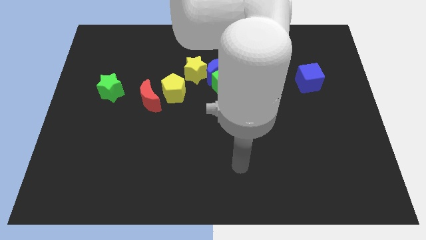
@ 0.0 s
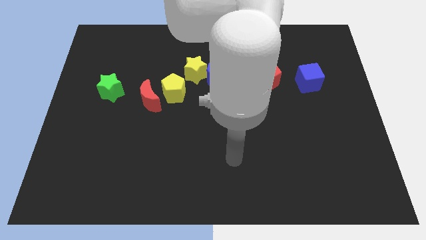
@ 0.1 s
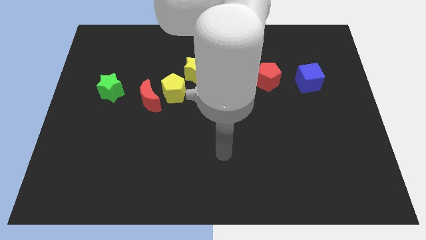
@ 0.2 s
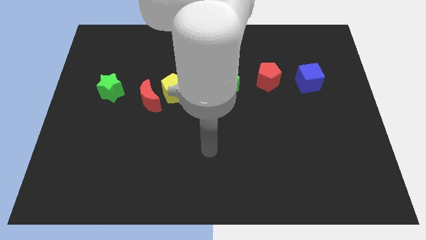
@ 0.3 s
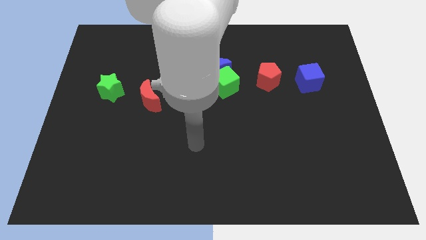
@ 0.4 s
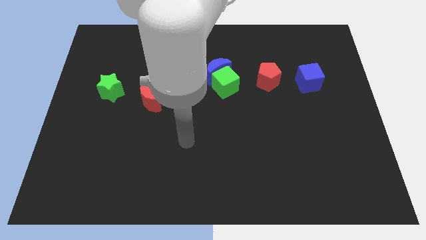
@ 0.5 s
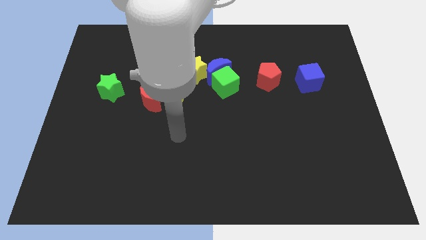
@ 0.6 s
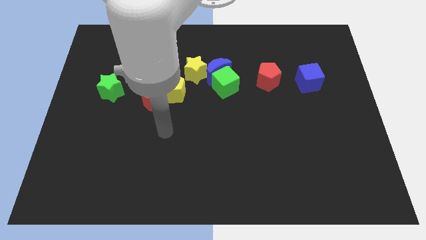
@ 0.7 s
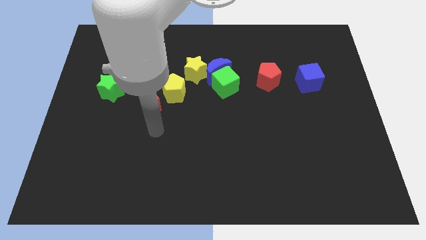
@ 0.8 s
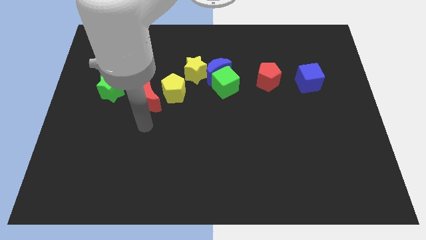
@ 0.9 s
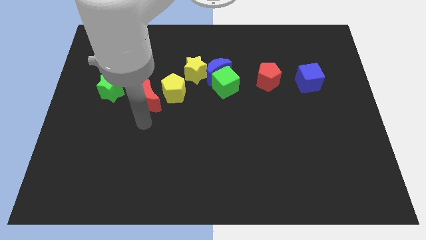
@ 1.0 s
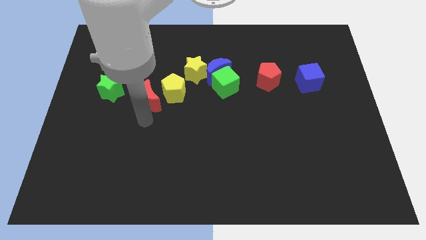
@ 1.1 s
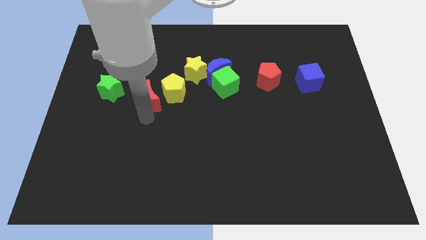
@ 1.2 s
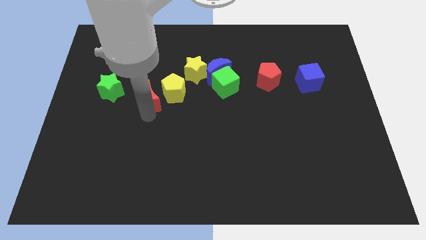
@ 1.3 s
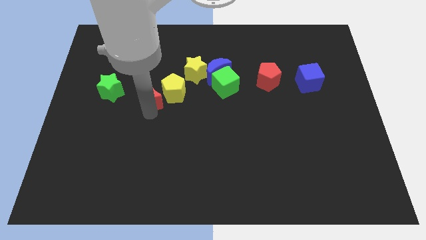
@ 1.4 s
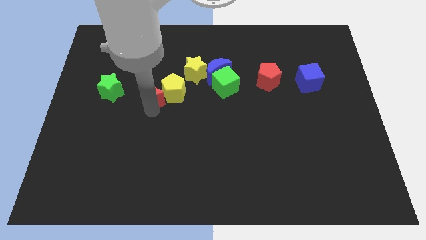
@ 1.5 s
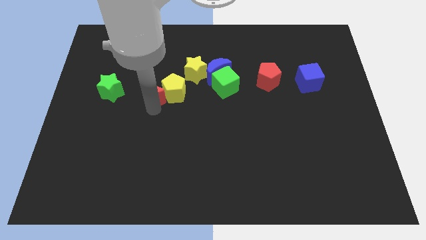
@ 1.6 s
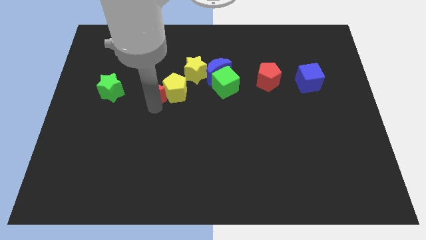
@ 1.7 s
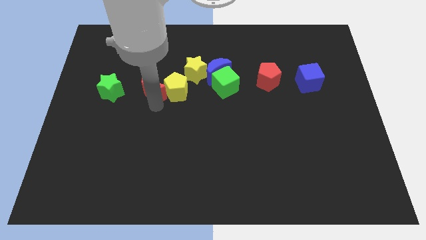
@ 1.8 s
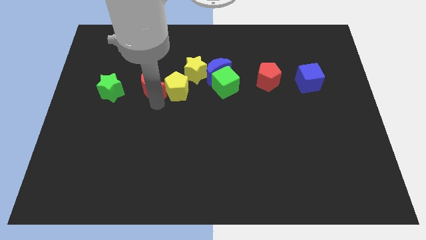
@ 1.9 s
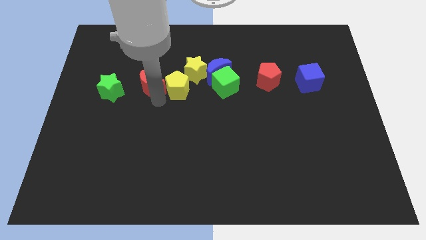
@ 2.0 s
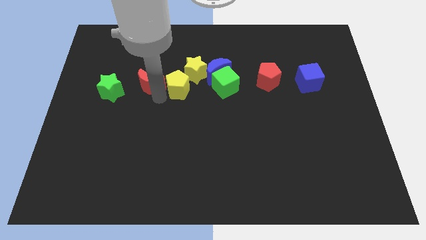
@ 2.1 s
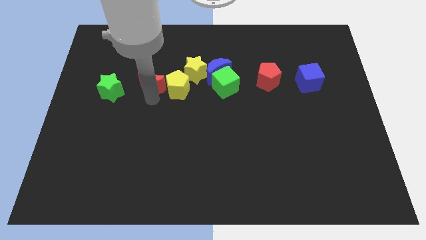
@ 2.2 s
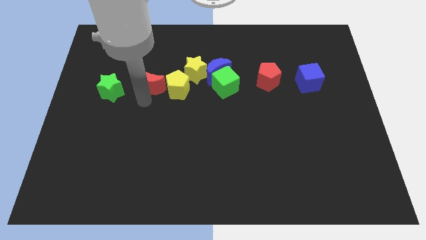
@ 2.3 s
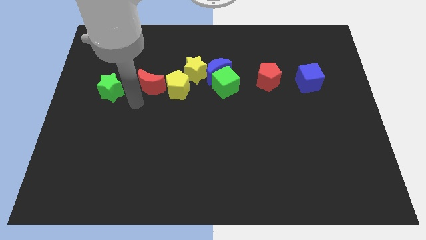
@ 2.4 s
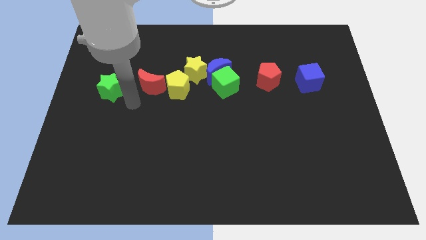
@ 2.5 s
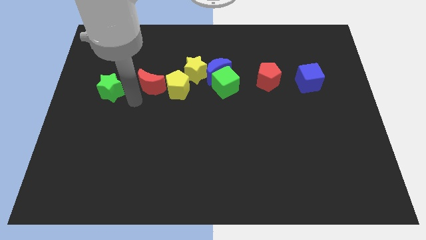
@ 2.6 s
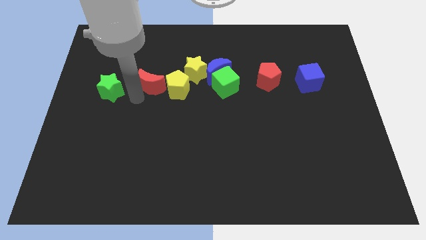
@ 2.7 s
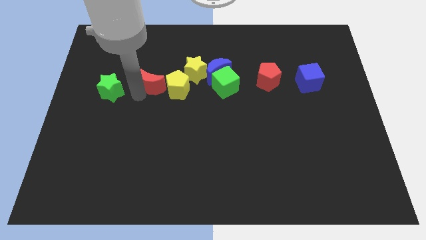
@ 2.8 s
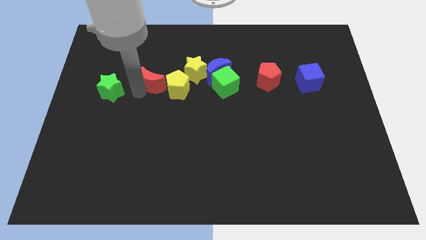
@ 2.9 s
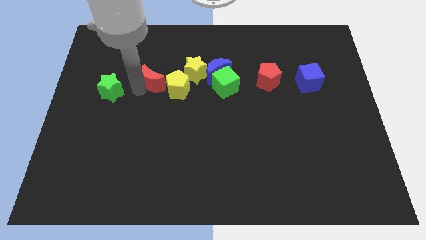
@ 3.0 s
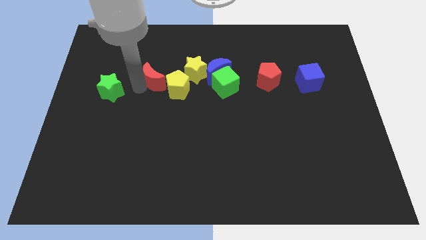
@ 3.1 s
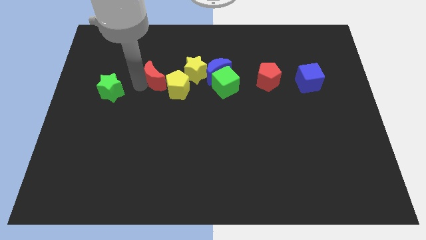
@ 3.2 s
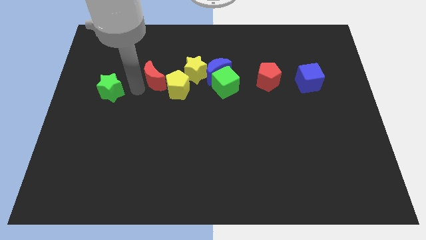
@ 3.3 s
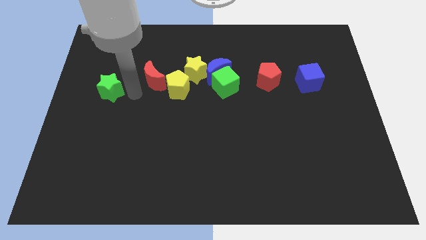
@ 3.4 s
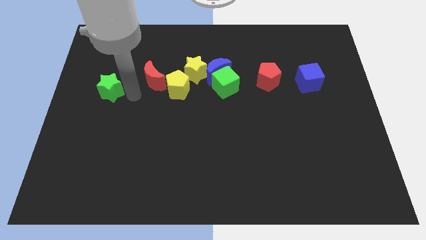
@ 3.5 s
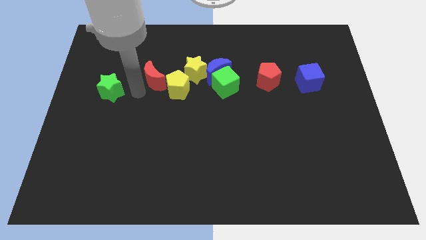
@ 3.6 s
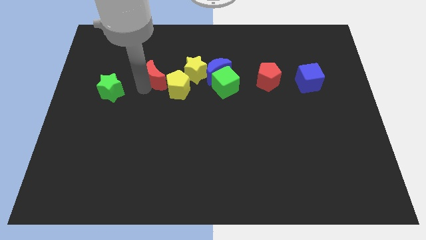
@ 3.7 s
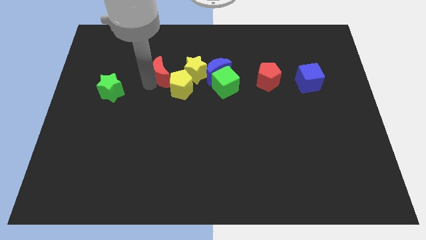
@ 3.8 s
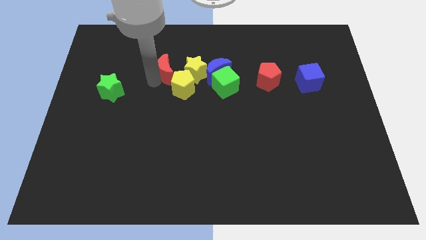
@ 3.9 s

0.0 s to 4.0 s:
move the red moon upwards and to the right diagonally somewhat

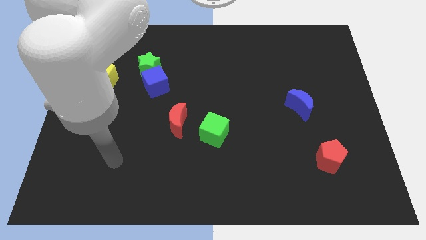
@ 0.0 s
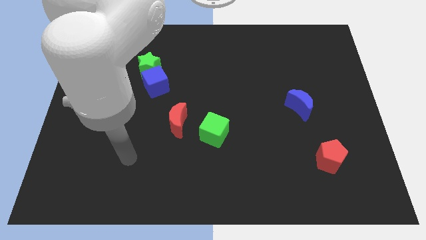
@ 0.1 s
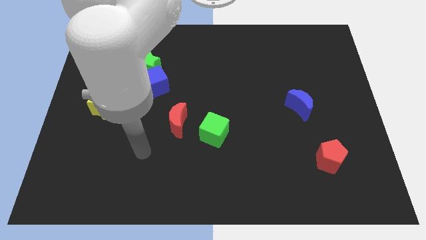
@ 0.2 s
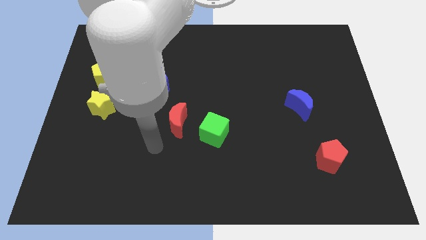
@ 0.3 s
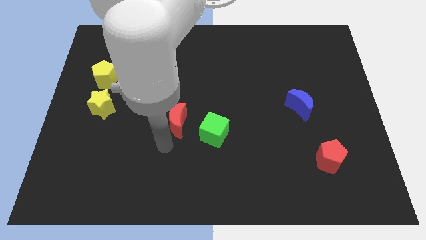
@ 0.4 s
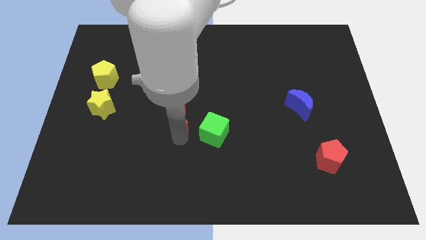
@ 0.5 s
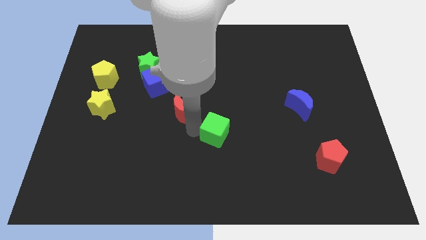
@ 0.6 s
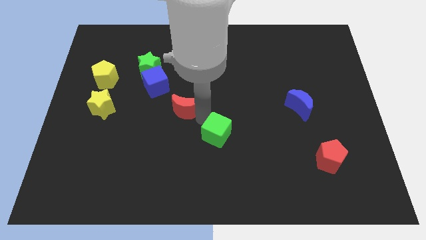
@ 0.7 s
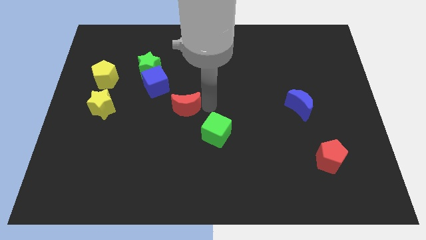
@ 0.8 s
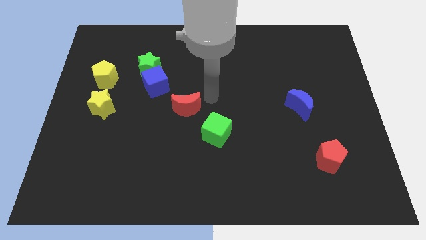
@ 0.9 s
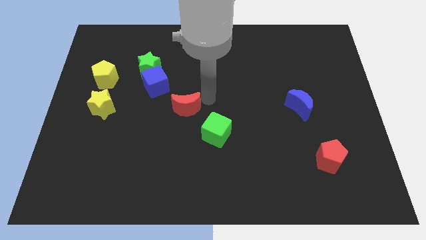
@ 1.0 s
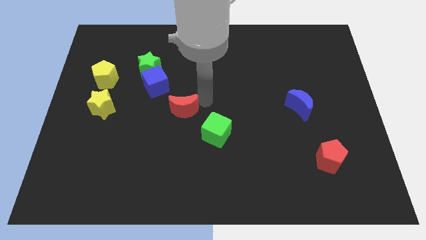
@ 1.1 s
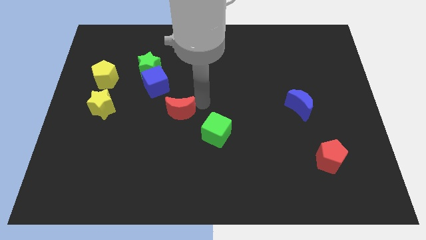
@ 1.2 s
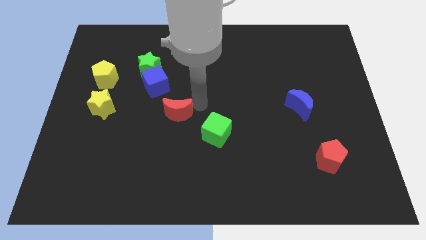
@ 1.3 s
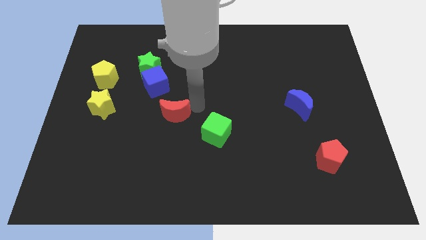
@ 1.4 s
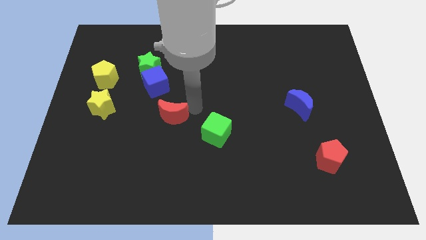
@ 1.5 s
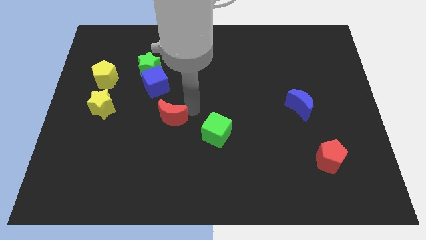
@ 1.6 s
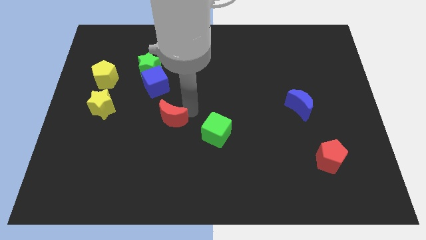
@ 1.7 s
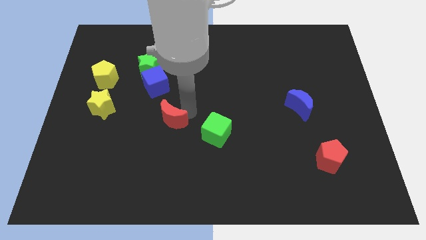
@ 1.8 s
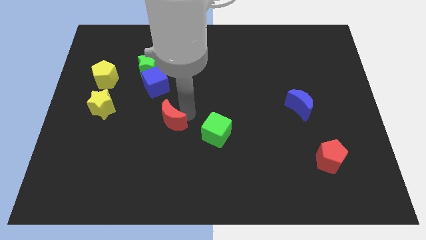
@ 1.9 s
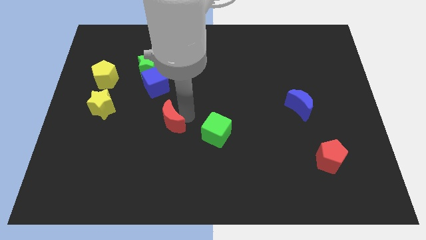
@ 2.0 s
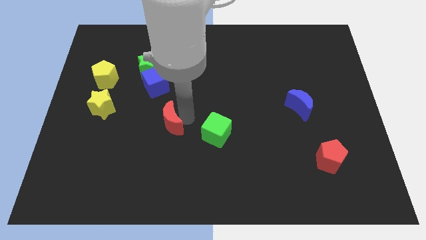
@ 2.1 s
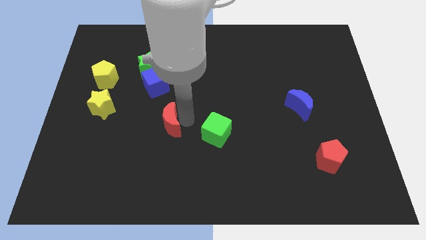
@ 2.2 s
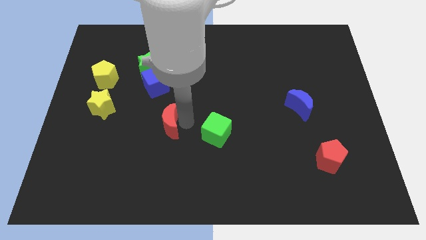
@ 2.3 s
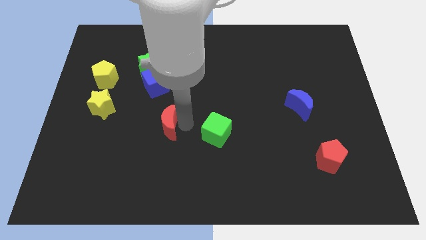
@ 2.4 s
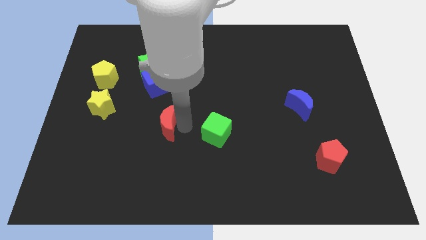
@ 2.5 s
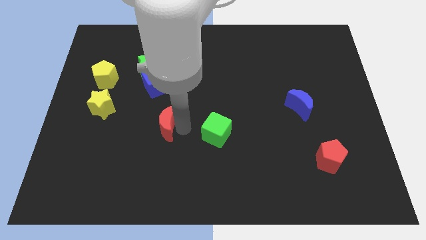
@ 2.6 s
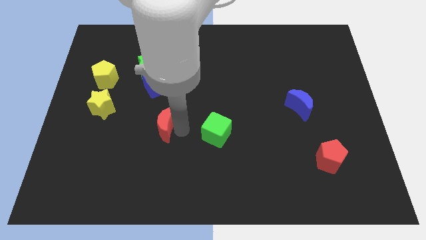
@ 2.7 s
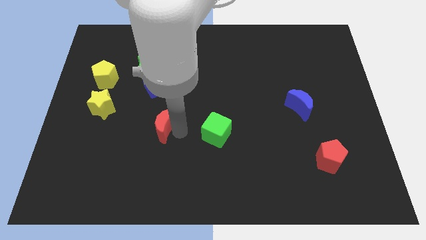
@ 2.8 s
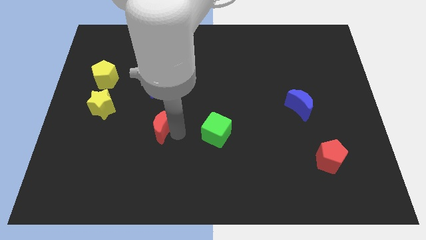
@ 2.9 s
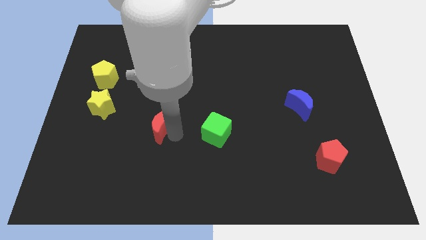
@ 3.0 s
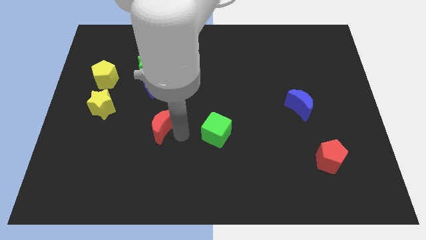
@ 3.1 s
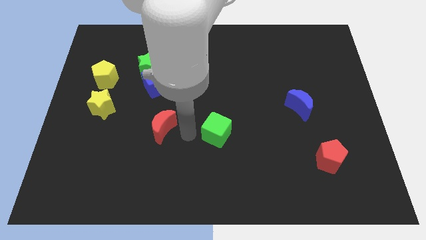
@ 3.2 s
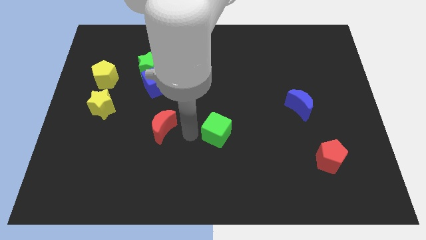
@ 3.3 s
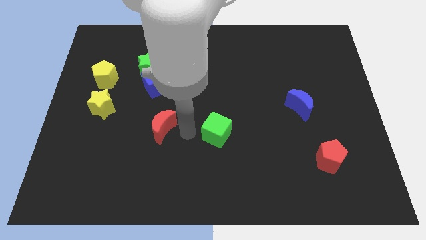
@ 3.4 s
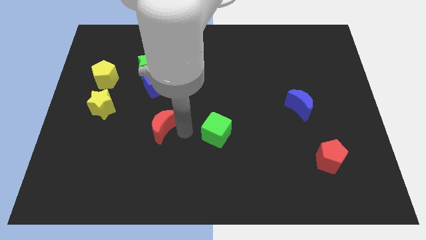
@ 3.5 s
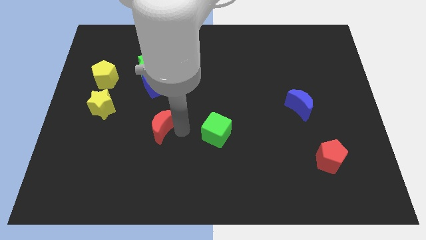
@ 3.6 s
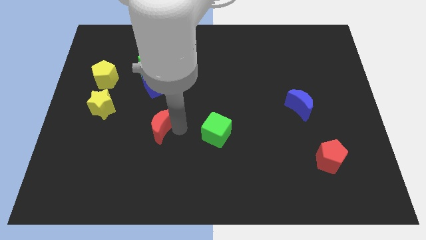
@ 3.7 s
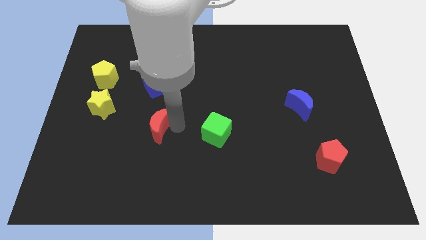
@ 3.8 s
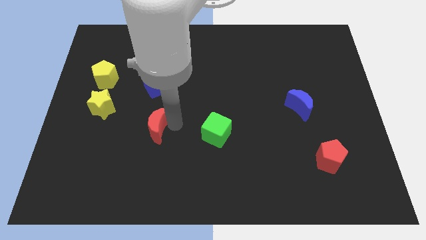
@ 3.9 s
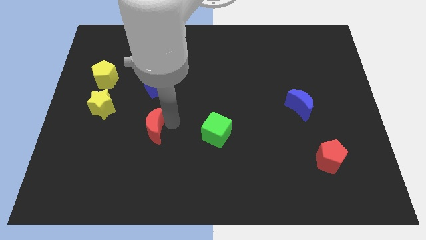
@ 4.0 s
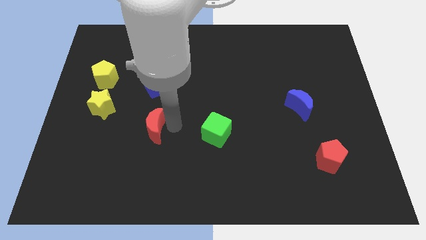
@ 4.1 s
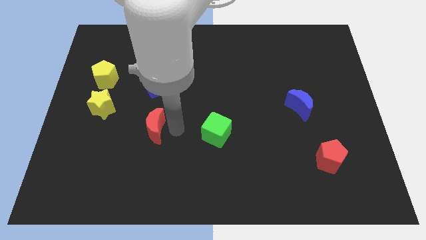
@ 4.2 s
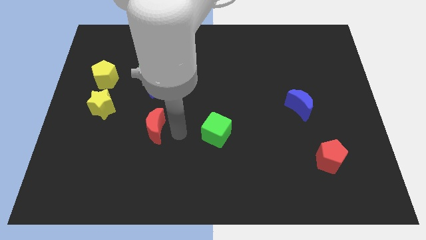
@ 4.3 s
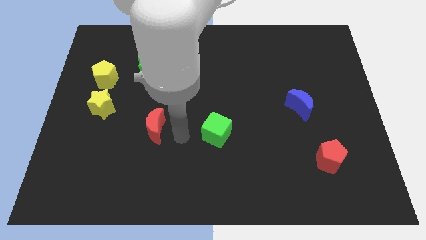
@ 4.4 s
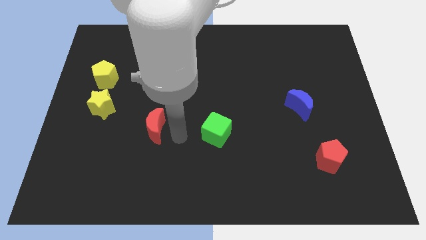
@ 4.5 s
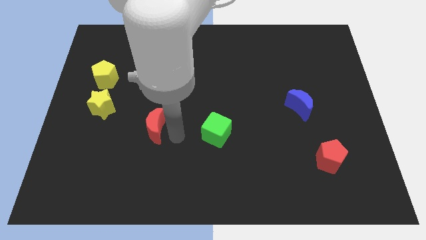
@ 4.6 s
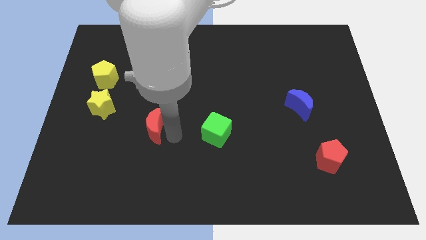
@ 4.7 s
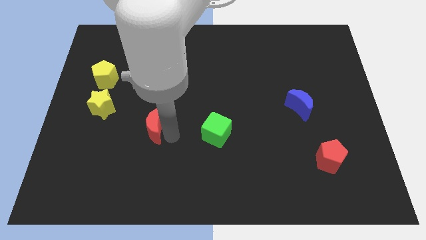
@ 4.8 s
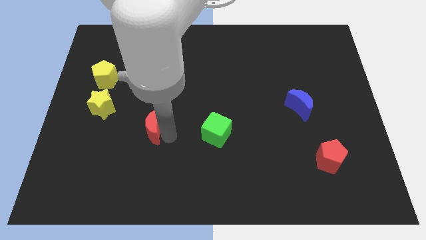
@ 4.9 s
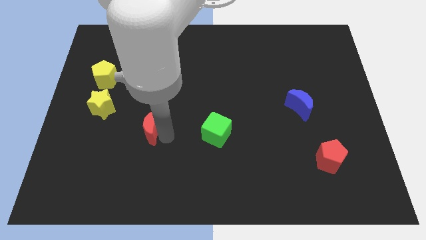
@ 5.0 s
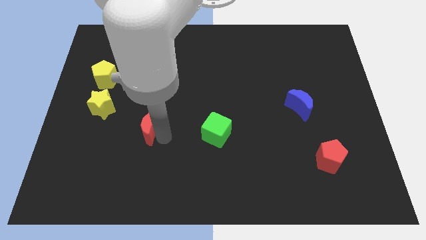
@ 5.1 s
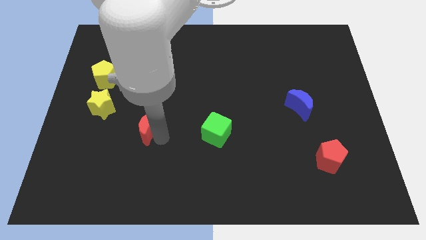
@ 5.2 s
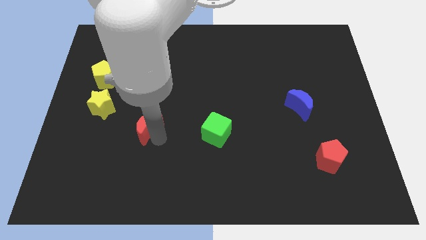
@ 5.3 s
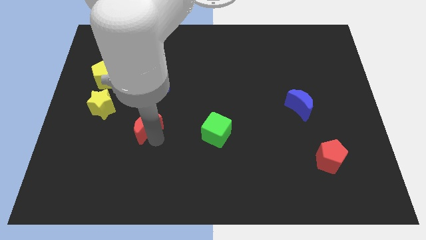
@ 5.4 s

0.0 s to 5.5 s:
push the red moon left a little bit
